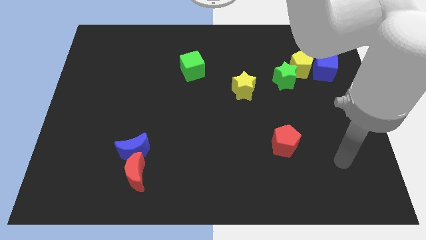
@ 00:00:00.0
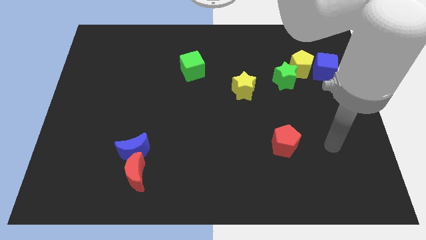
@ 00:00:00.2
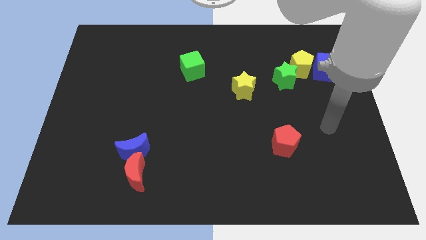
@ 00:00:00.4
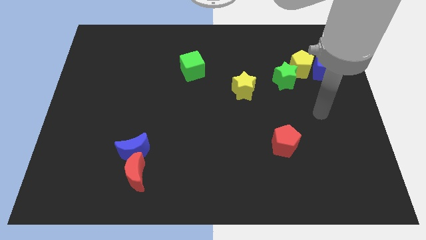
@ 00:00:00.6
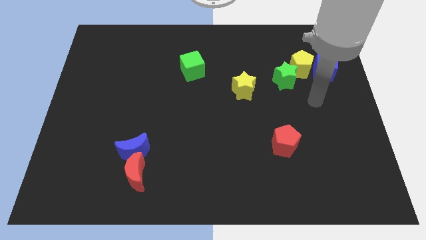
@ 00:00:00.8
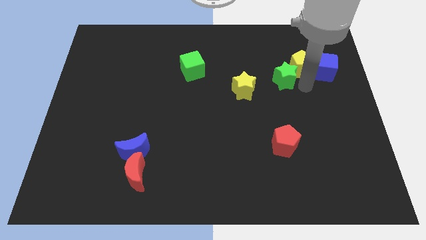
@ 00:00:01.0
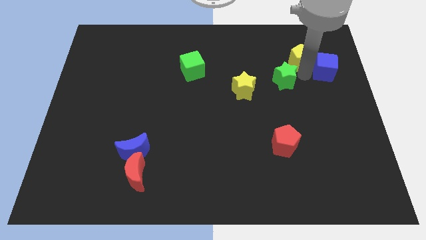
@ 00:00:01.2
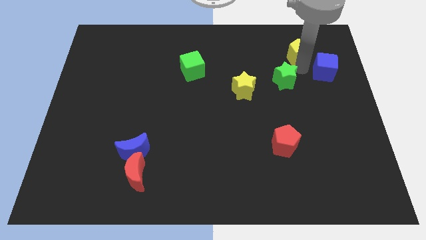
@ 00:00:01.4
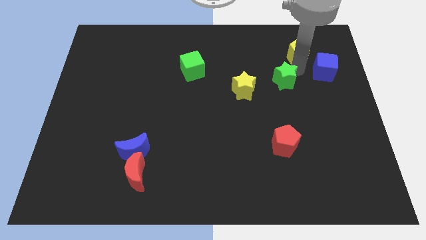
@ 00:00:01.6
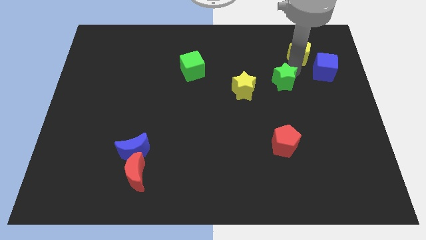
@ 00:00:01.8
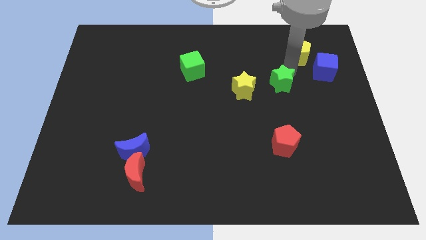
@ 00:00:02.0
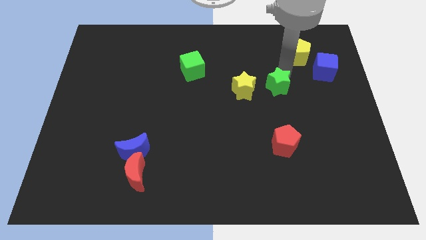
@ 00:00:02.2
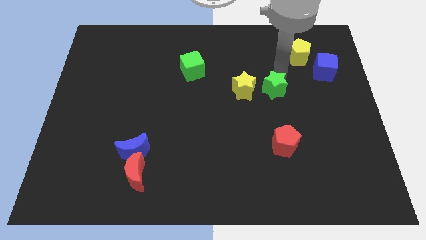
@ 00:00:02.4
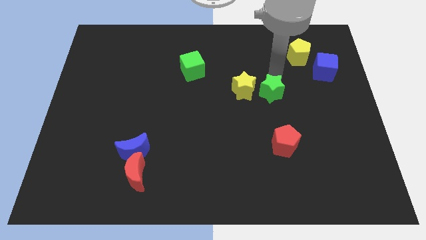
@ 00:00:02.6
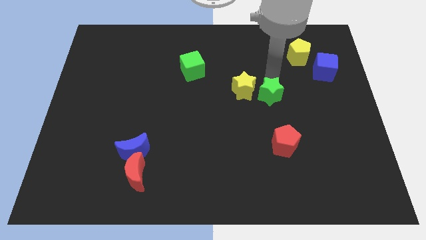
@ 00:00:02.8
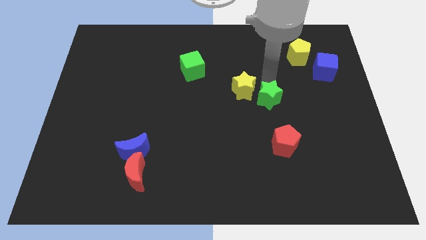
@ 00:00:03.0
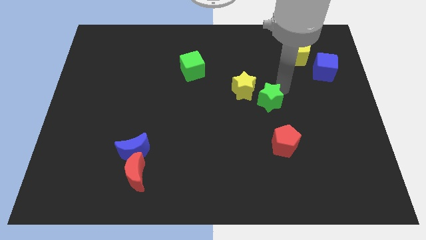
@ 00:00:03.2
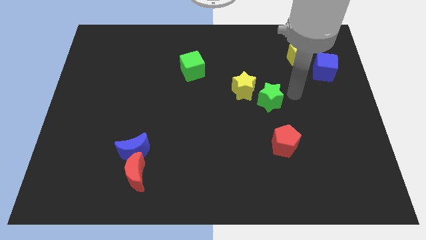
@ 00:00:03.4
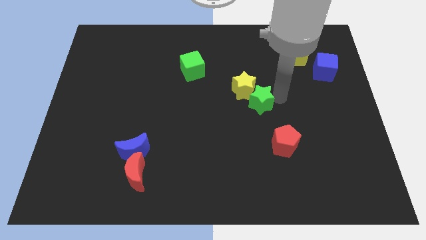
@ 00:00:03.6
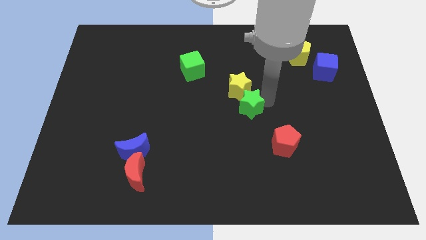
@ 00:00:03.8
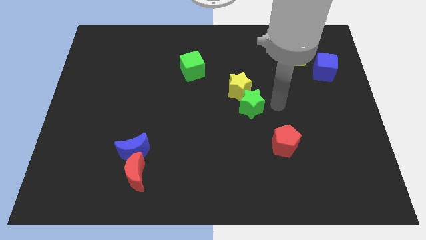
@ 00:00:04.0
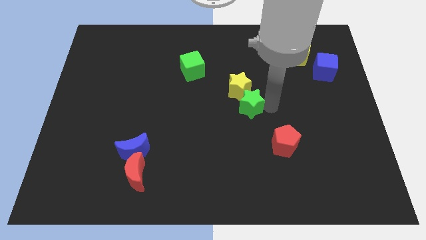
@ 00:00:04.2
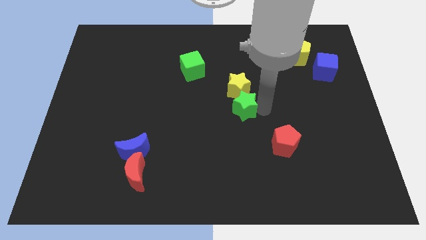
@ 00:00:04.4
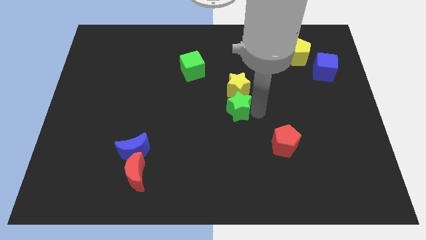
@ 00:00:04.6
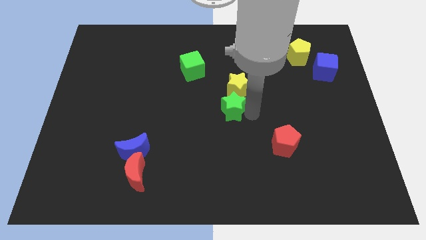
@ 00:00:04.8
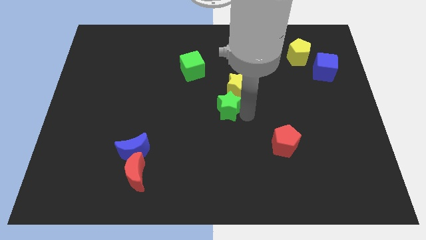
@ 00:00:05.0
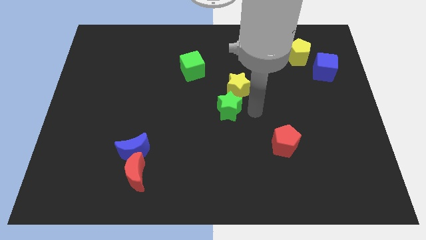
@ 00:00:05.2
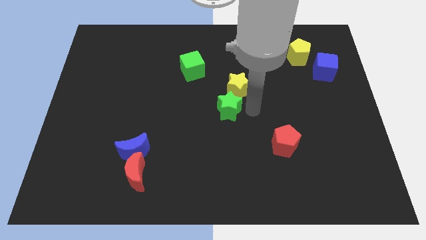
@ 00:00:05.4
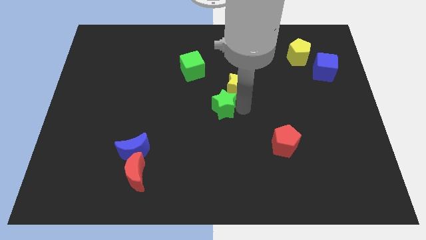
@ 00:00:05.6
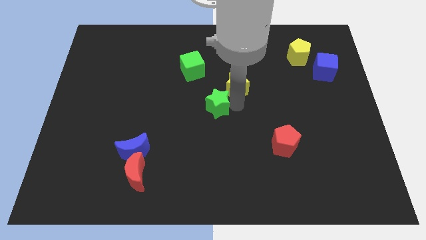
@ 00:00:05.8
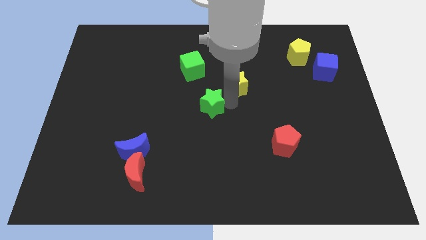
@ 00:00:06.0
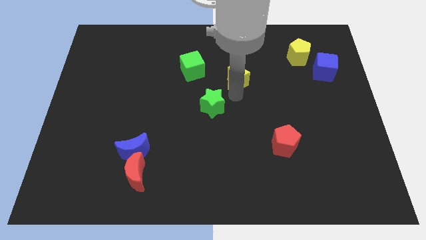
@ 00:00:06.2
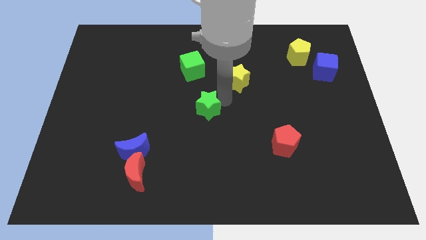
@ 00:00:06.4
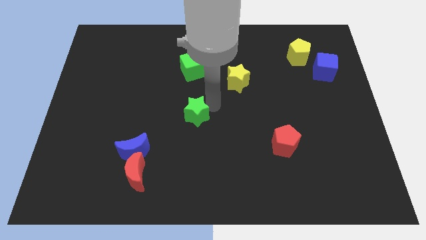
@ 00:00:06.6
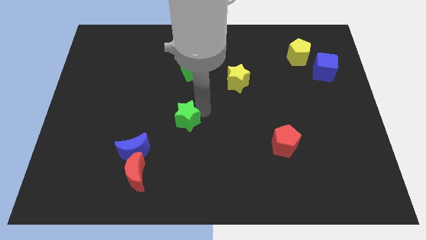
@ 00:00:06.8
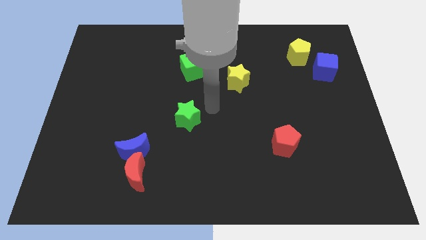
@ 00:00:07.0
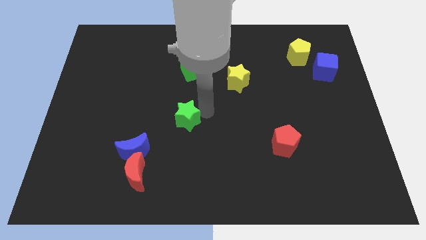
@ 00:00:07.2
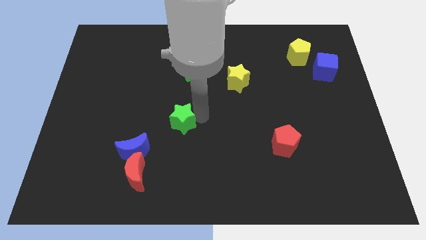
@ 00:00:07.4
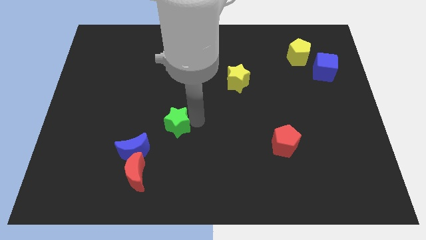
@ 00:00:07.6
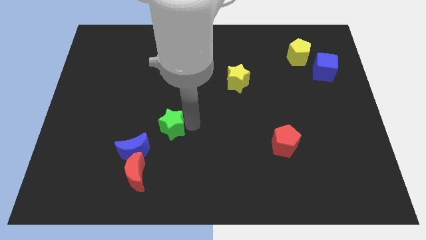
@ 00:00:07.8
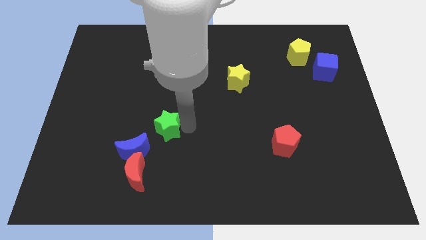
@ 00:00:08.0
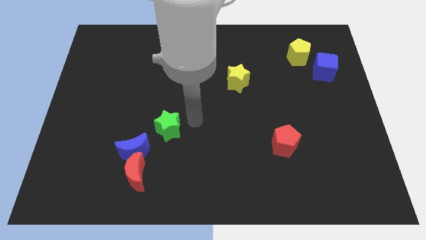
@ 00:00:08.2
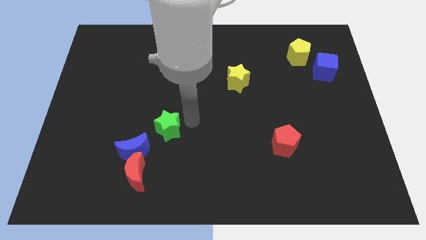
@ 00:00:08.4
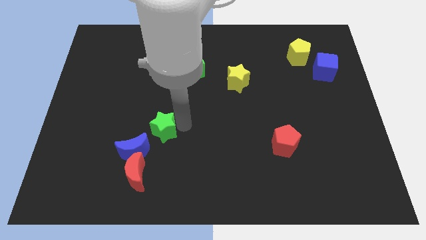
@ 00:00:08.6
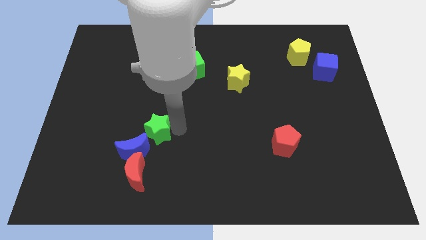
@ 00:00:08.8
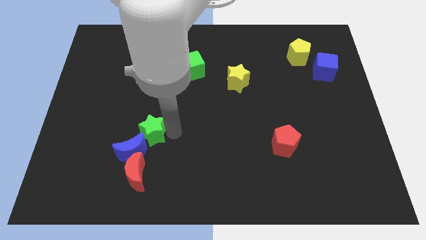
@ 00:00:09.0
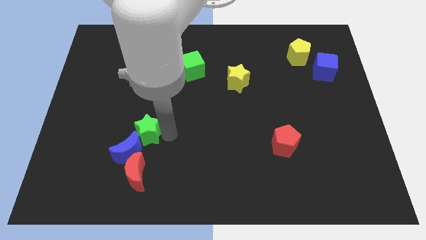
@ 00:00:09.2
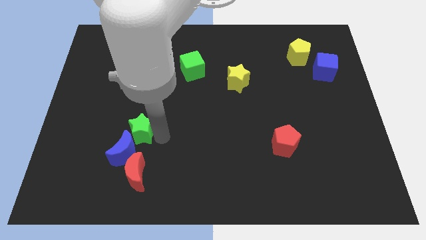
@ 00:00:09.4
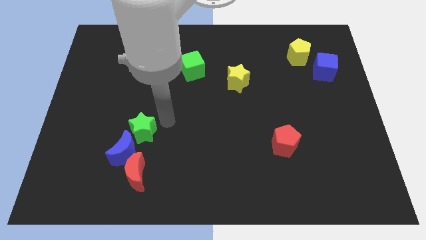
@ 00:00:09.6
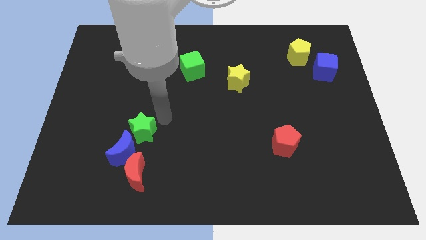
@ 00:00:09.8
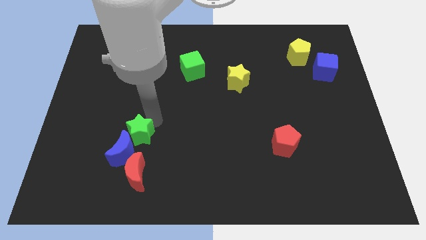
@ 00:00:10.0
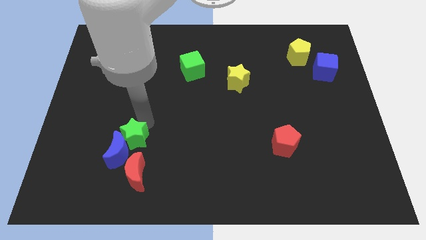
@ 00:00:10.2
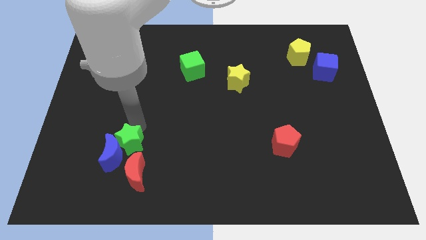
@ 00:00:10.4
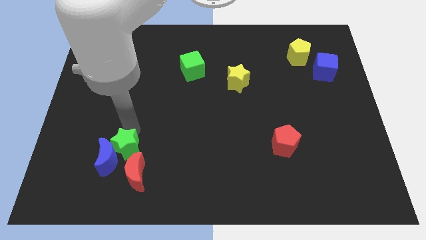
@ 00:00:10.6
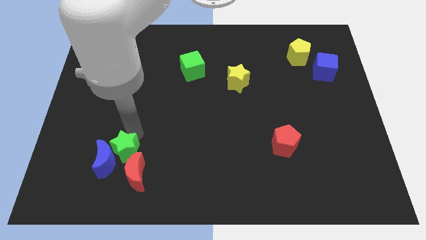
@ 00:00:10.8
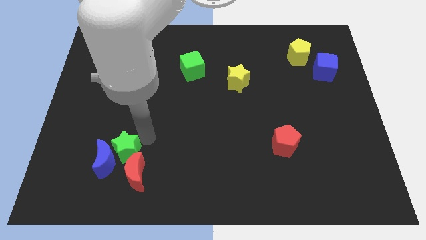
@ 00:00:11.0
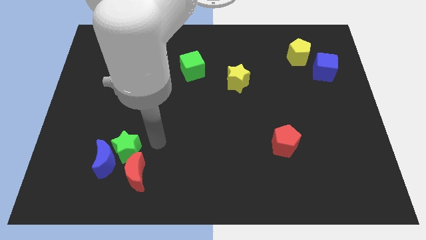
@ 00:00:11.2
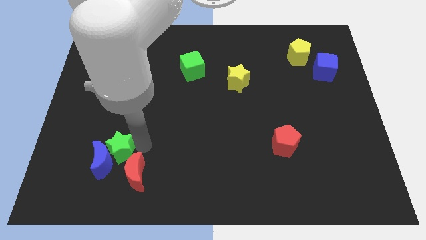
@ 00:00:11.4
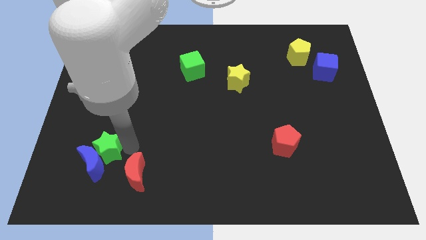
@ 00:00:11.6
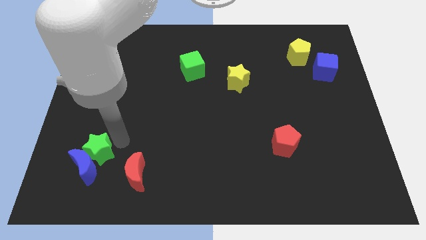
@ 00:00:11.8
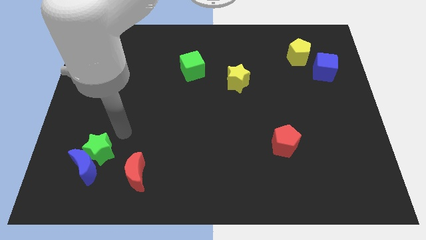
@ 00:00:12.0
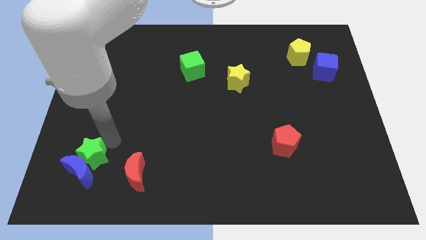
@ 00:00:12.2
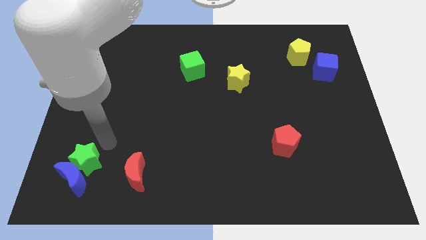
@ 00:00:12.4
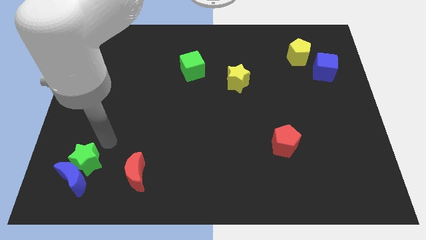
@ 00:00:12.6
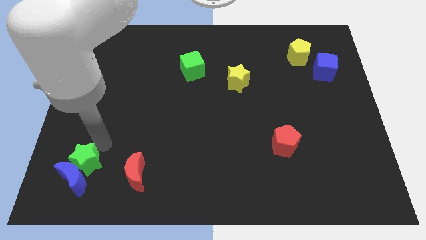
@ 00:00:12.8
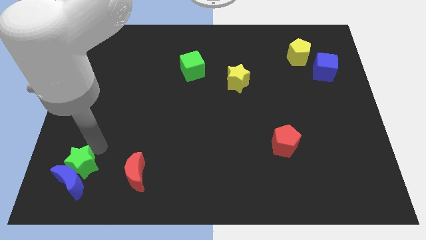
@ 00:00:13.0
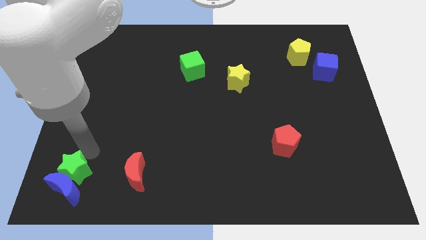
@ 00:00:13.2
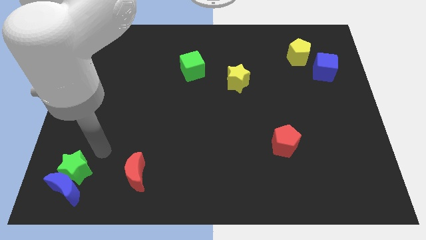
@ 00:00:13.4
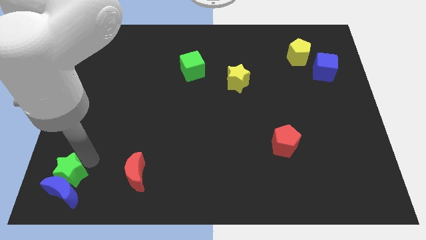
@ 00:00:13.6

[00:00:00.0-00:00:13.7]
push the green star to the lower left corner
